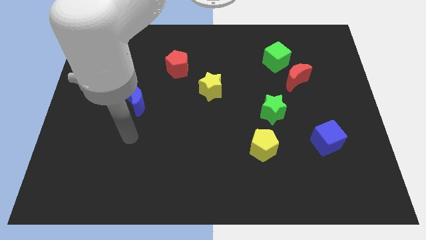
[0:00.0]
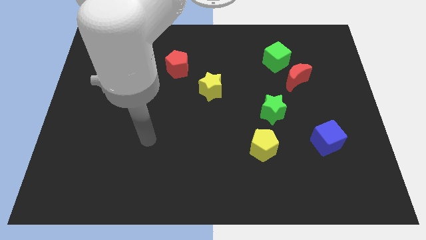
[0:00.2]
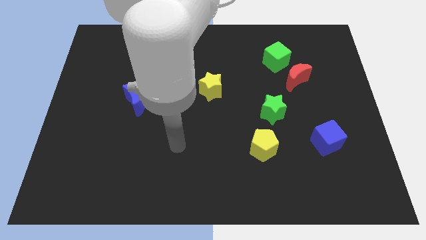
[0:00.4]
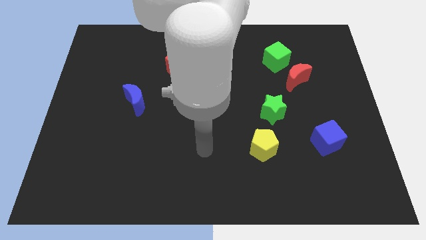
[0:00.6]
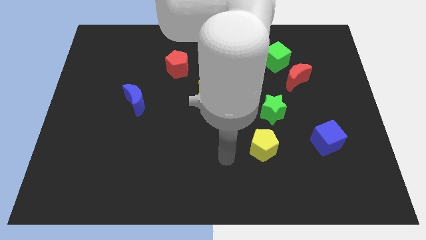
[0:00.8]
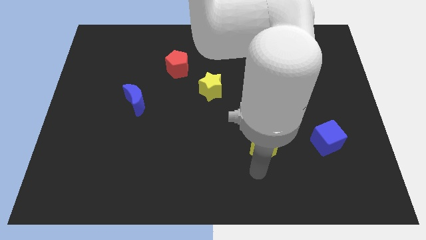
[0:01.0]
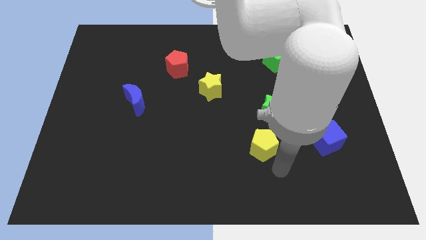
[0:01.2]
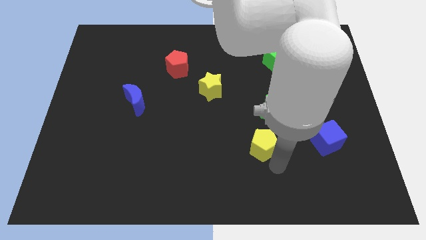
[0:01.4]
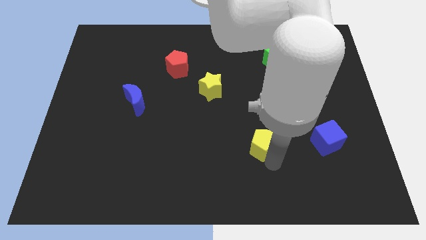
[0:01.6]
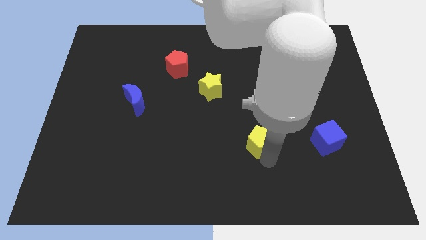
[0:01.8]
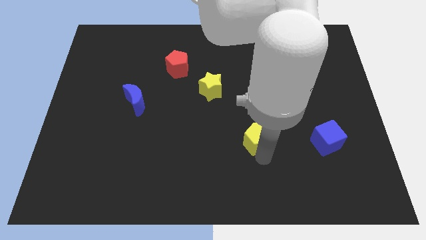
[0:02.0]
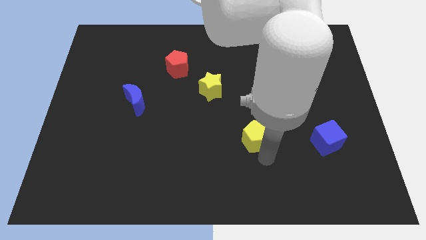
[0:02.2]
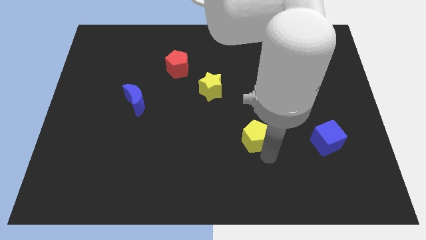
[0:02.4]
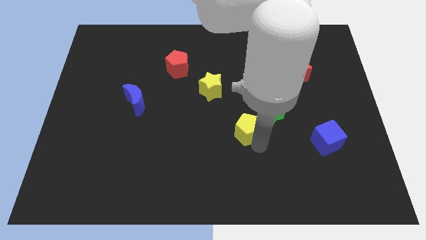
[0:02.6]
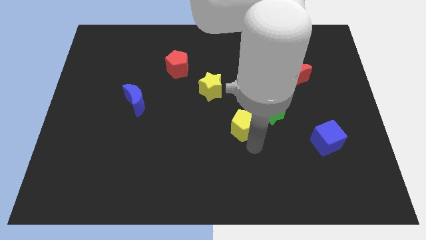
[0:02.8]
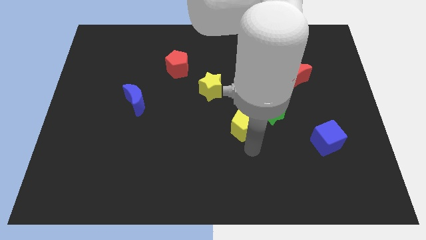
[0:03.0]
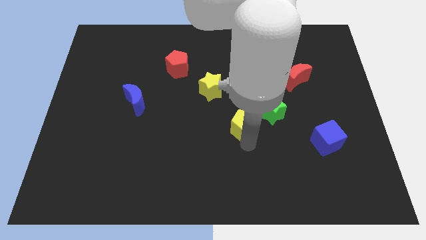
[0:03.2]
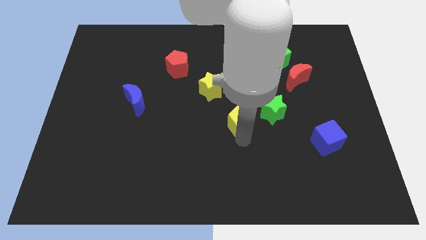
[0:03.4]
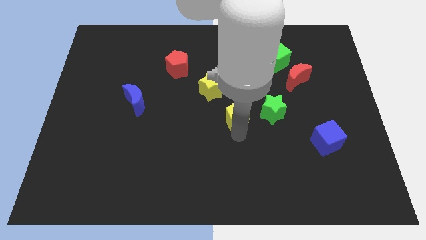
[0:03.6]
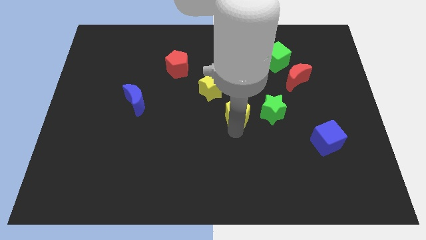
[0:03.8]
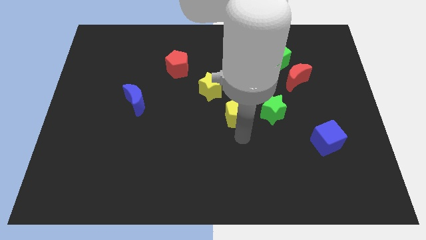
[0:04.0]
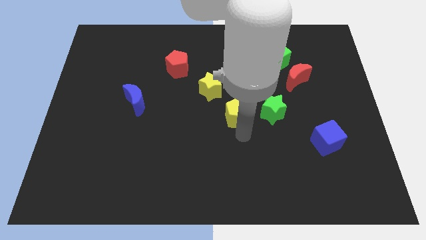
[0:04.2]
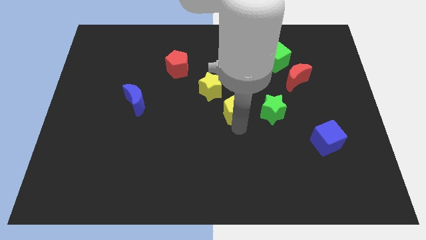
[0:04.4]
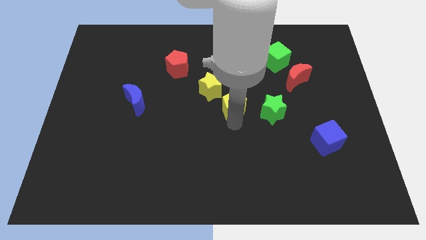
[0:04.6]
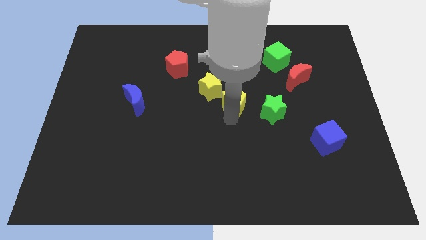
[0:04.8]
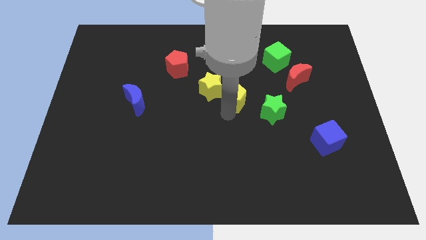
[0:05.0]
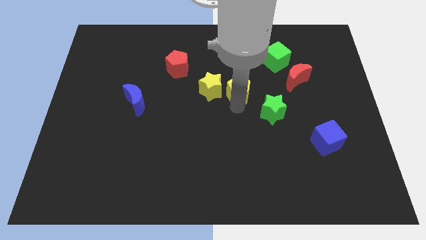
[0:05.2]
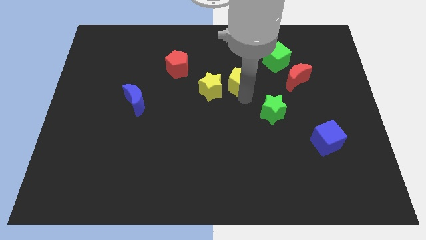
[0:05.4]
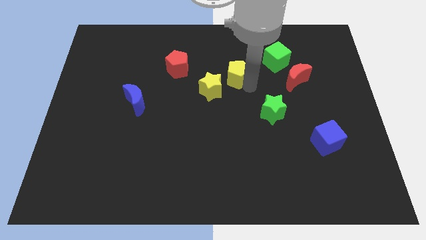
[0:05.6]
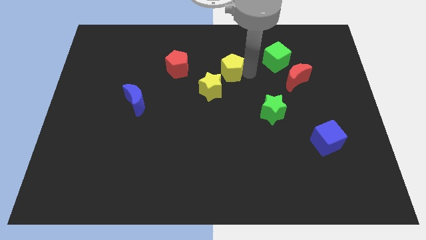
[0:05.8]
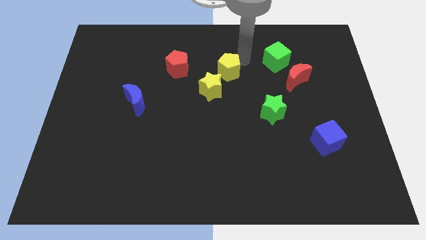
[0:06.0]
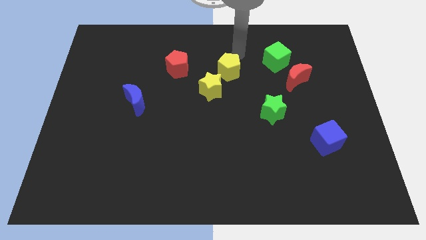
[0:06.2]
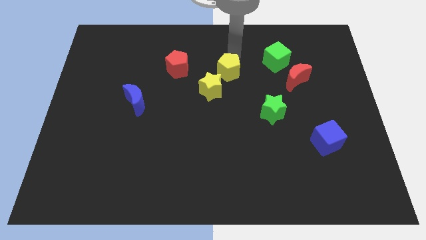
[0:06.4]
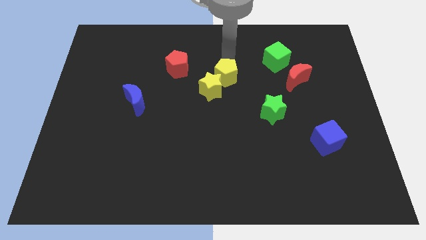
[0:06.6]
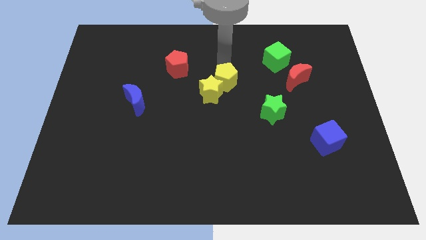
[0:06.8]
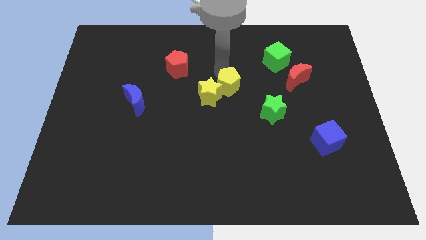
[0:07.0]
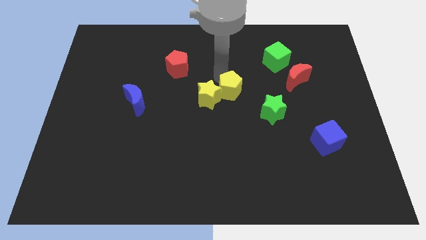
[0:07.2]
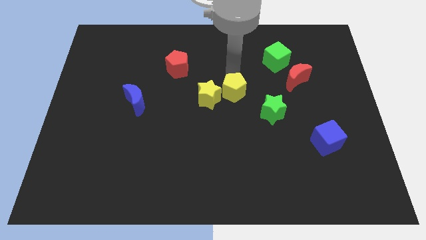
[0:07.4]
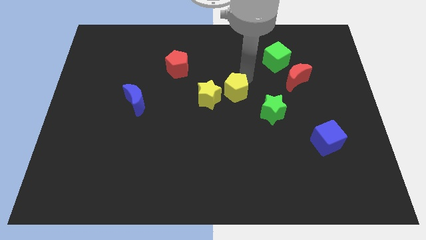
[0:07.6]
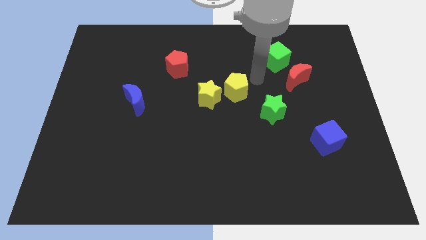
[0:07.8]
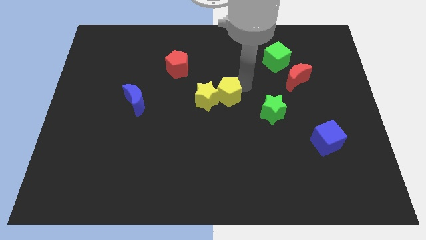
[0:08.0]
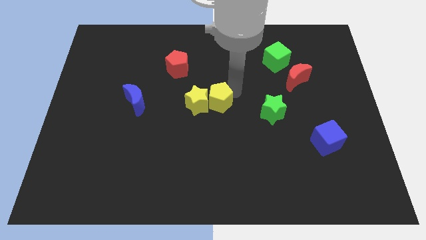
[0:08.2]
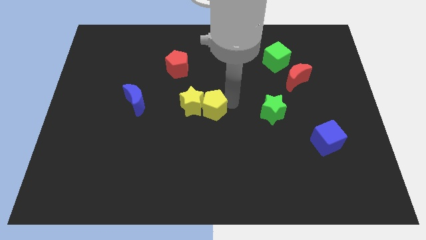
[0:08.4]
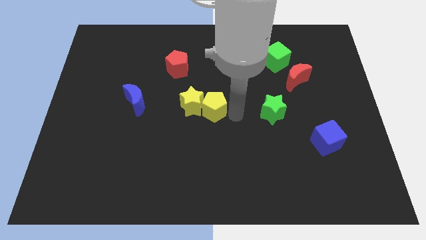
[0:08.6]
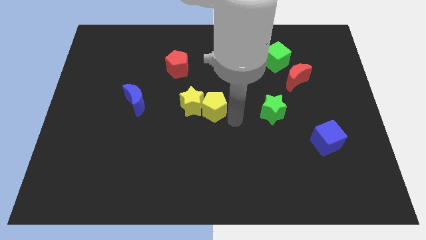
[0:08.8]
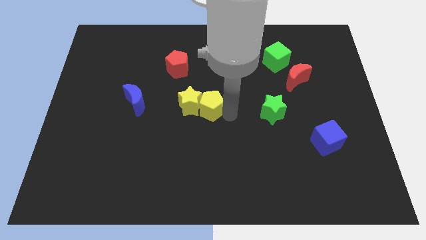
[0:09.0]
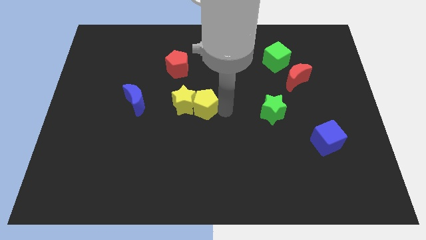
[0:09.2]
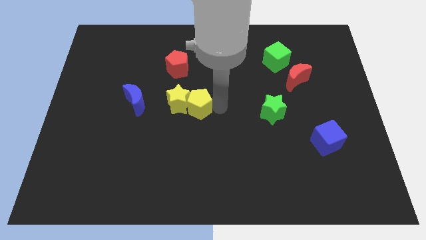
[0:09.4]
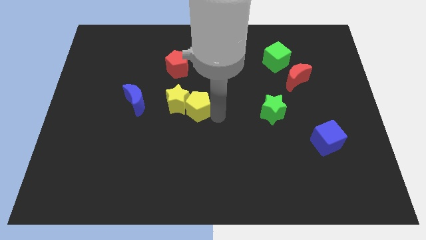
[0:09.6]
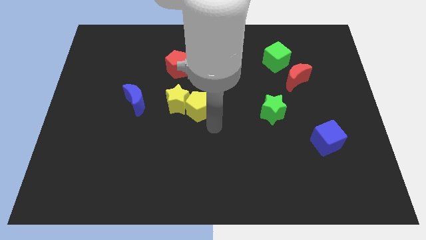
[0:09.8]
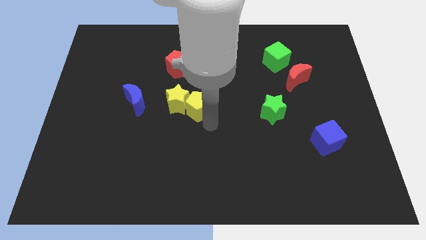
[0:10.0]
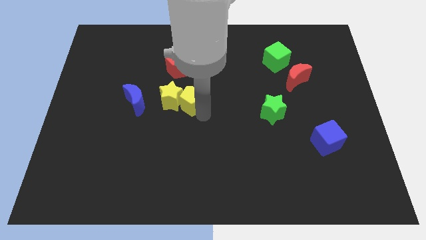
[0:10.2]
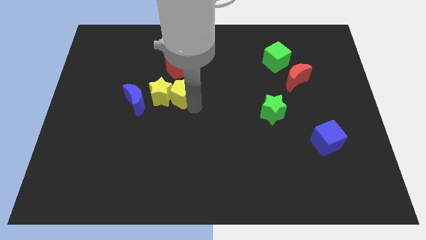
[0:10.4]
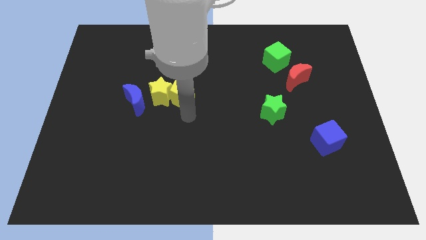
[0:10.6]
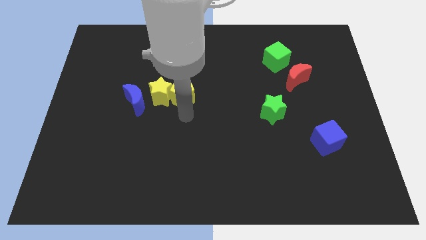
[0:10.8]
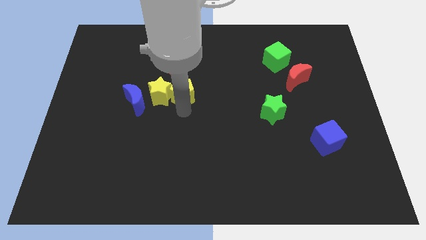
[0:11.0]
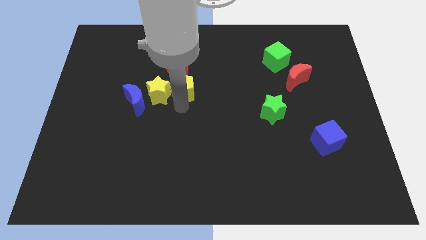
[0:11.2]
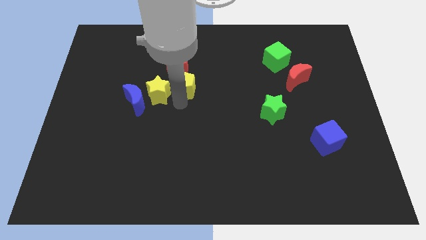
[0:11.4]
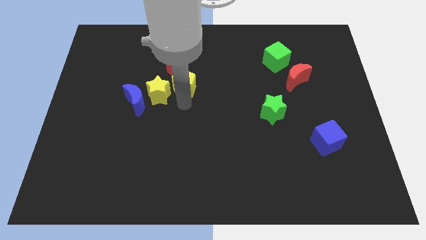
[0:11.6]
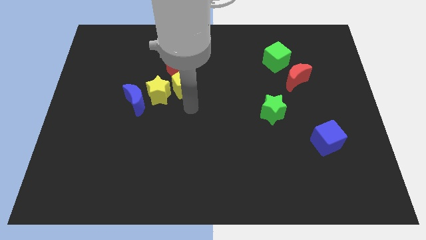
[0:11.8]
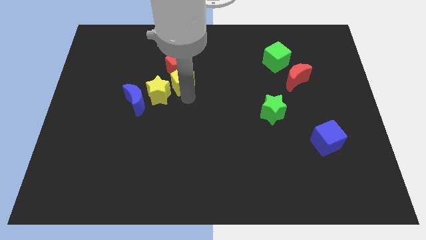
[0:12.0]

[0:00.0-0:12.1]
move the yellow pentagon to the red pentagon

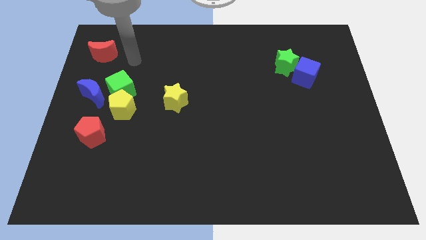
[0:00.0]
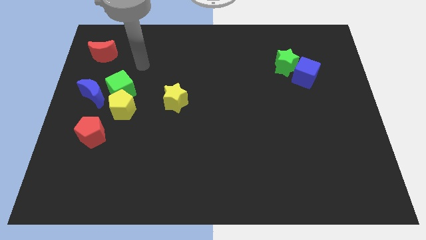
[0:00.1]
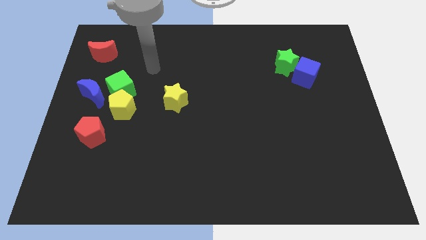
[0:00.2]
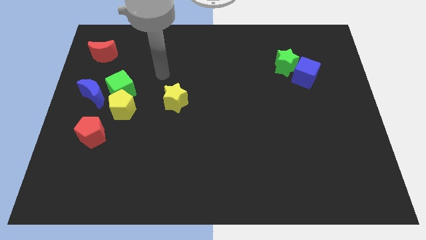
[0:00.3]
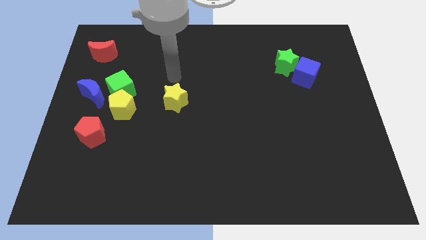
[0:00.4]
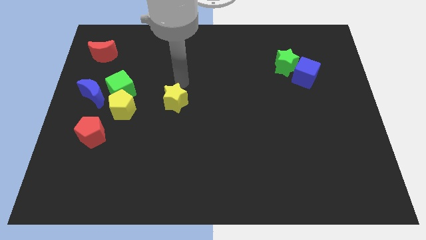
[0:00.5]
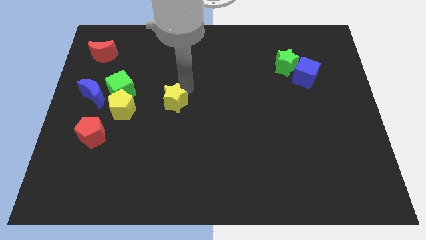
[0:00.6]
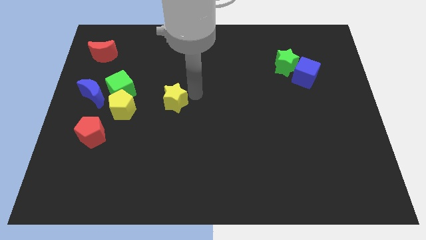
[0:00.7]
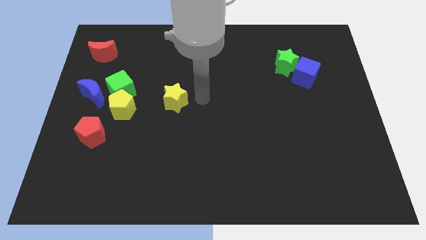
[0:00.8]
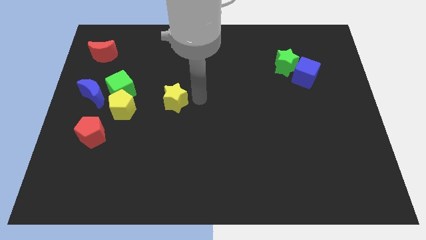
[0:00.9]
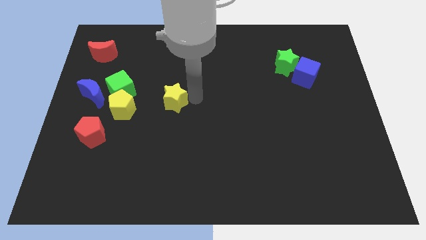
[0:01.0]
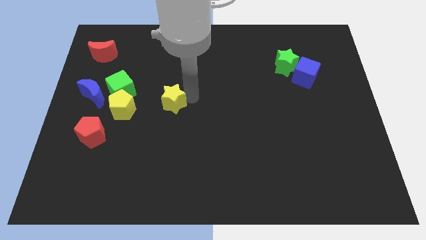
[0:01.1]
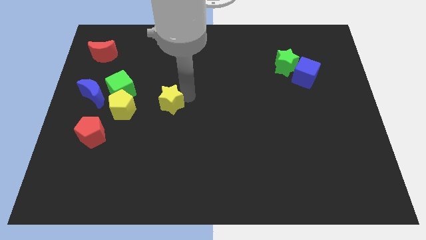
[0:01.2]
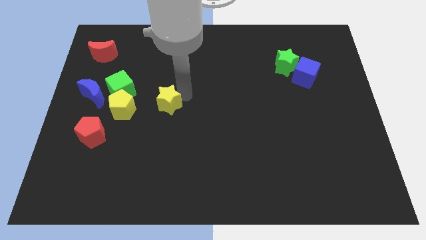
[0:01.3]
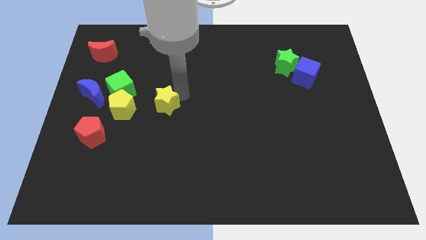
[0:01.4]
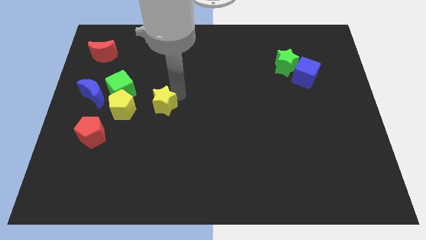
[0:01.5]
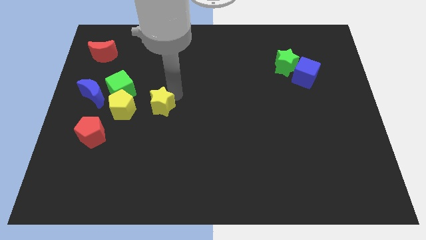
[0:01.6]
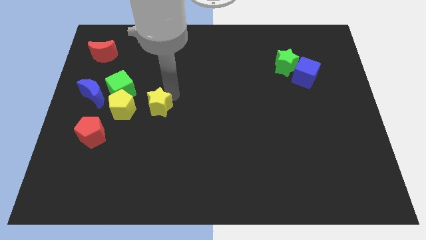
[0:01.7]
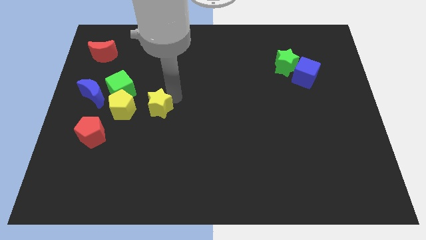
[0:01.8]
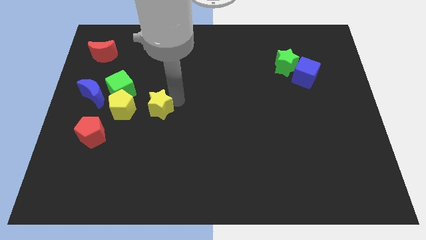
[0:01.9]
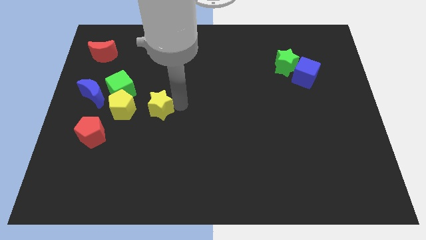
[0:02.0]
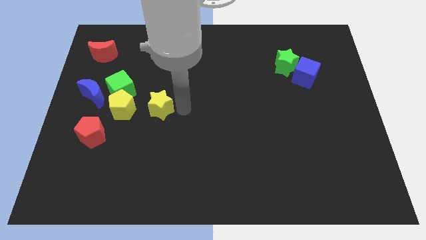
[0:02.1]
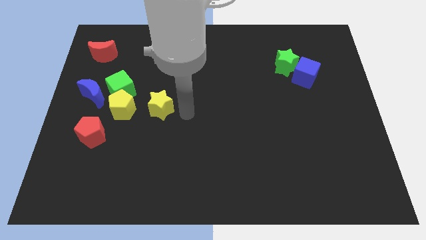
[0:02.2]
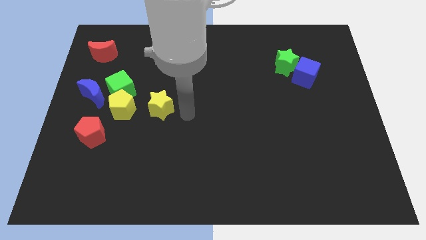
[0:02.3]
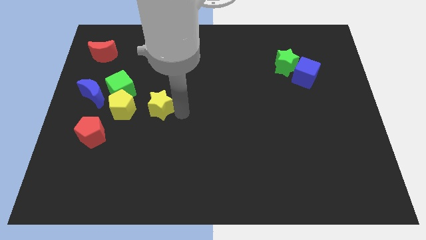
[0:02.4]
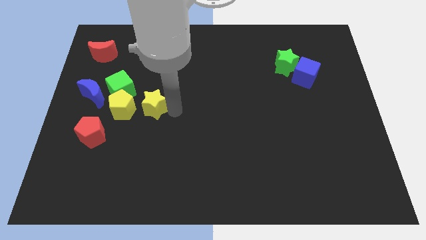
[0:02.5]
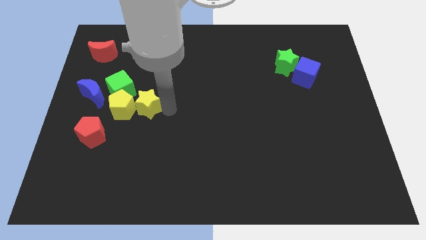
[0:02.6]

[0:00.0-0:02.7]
push the yellow star towards the yellow pentagon
